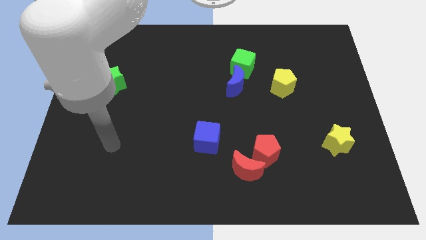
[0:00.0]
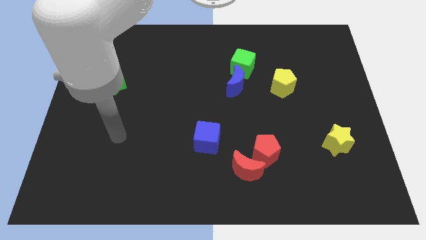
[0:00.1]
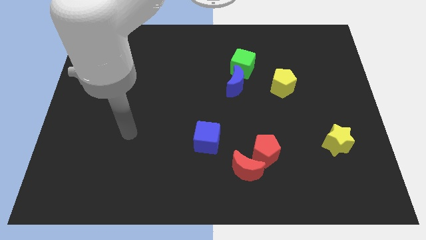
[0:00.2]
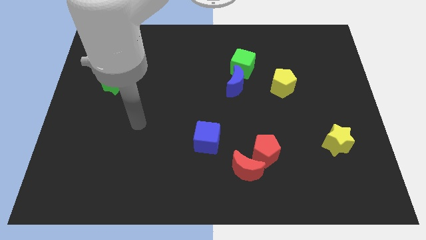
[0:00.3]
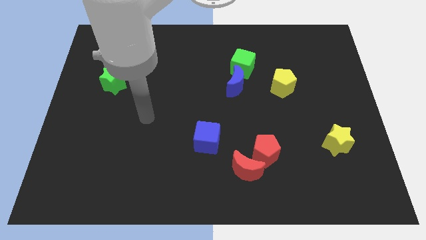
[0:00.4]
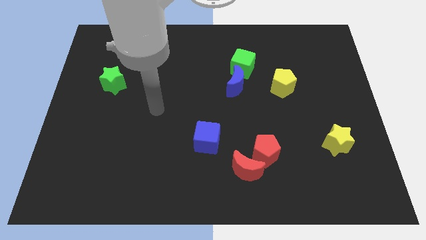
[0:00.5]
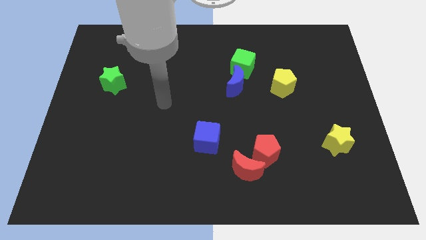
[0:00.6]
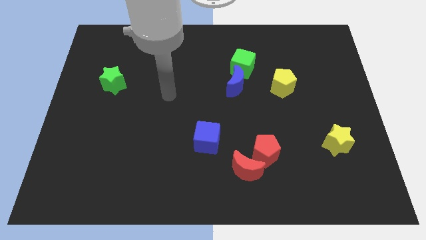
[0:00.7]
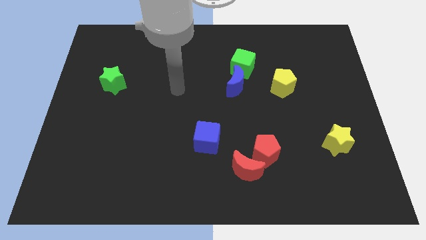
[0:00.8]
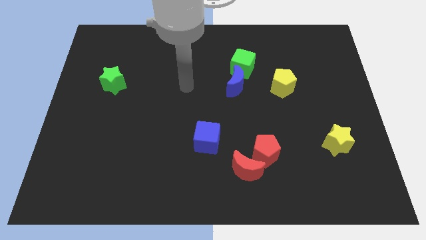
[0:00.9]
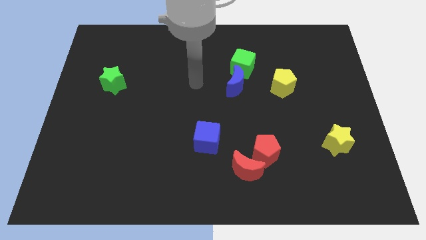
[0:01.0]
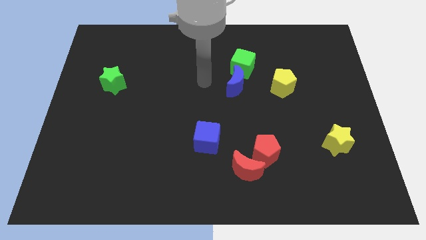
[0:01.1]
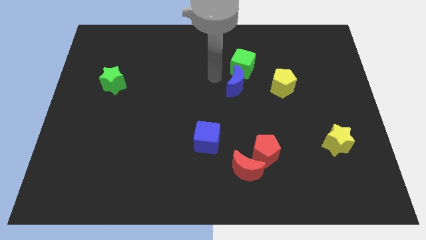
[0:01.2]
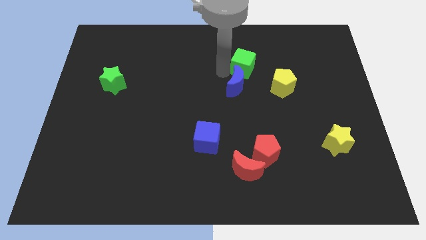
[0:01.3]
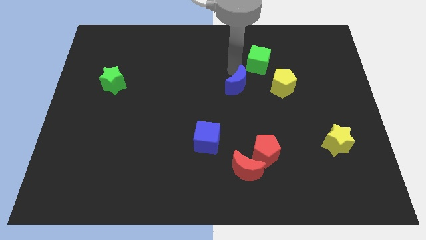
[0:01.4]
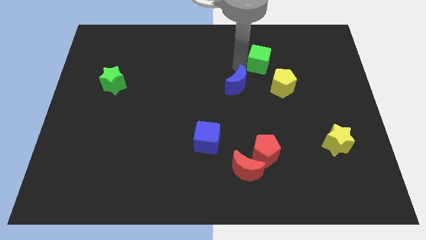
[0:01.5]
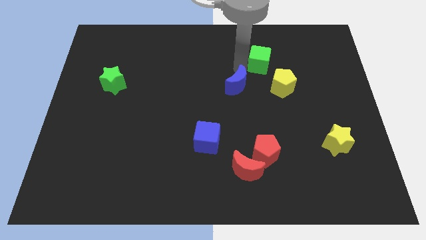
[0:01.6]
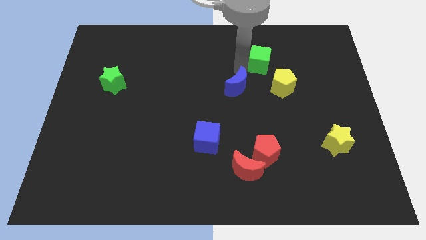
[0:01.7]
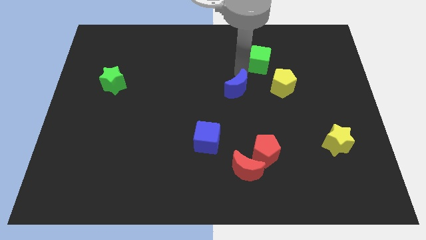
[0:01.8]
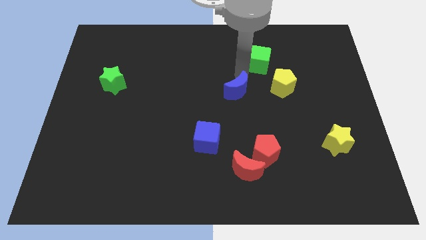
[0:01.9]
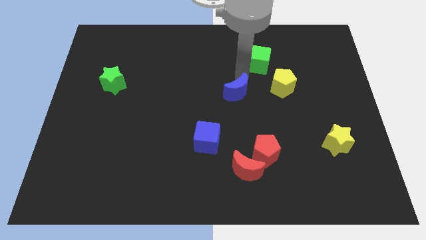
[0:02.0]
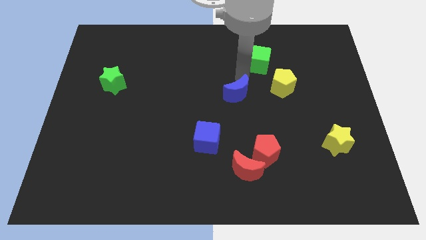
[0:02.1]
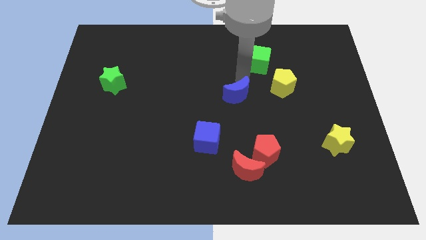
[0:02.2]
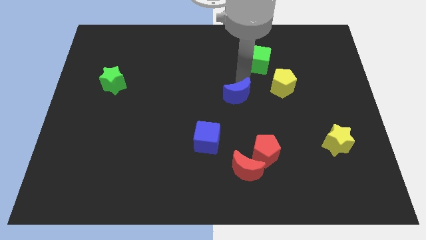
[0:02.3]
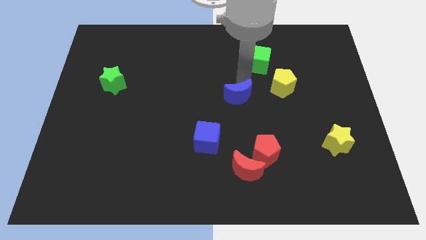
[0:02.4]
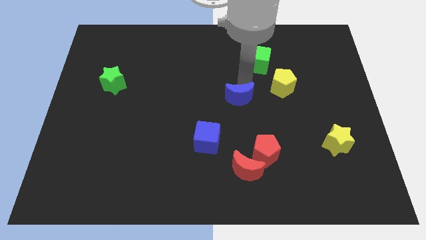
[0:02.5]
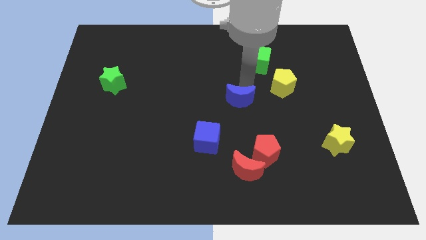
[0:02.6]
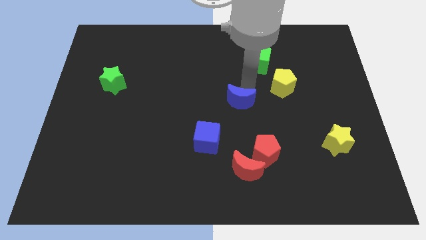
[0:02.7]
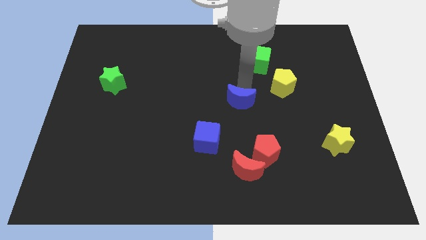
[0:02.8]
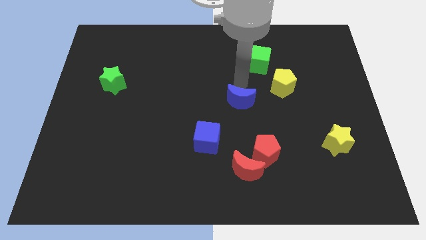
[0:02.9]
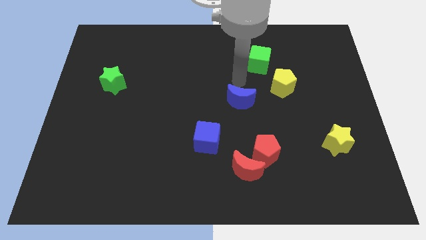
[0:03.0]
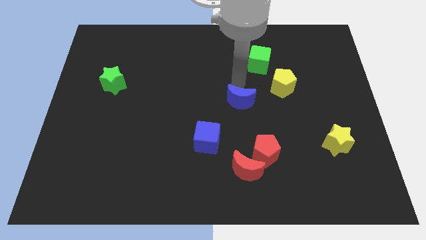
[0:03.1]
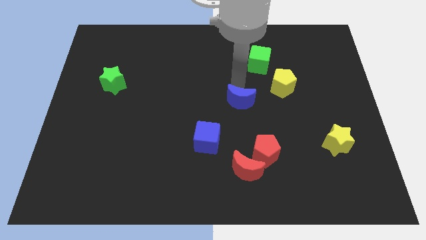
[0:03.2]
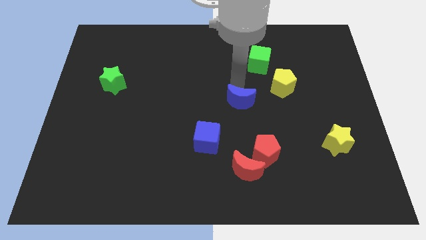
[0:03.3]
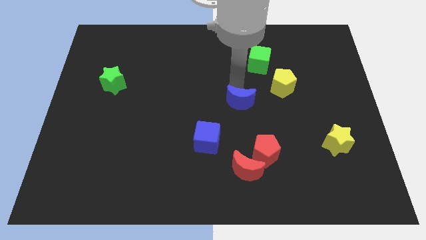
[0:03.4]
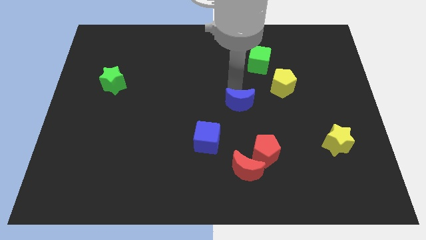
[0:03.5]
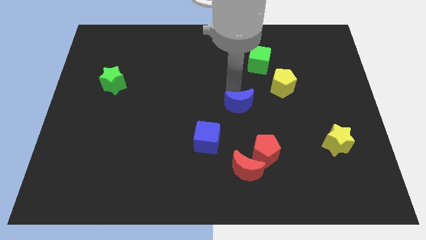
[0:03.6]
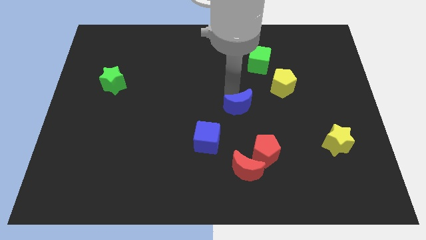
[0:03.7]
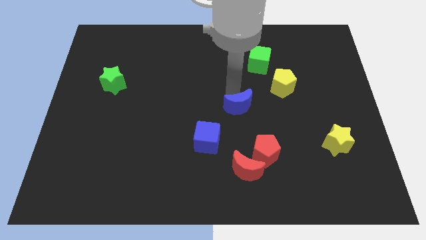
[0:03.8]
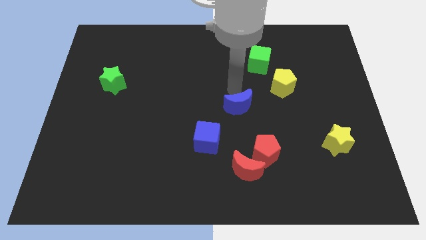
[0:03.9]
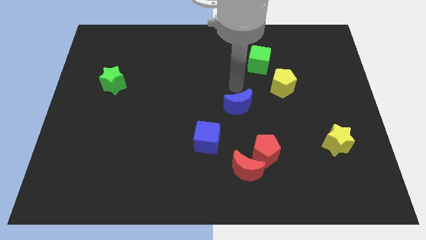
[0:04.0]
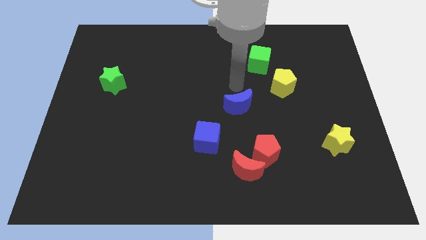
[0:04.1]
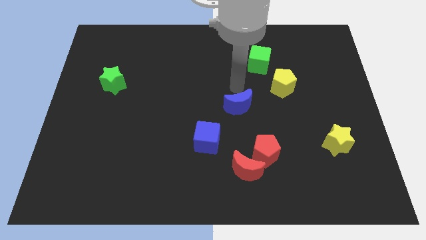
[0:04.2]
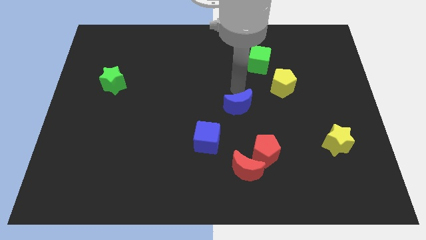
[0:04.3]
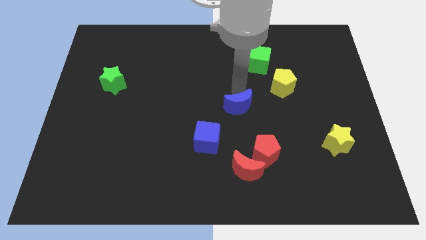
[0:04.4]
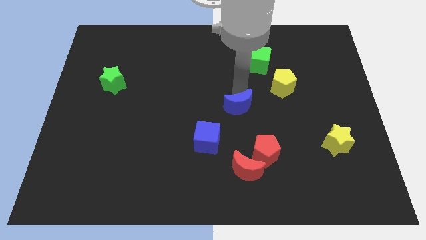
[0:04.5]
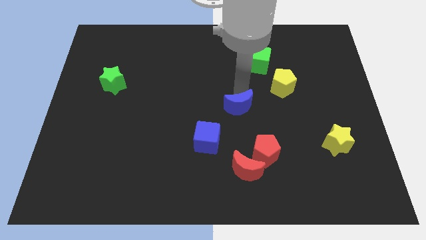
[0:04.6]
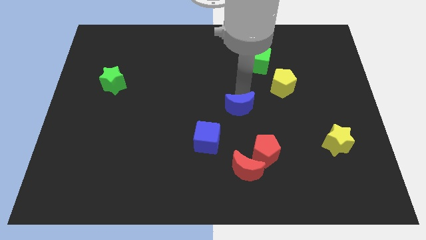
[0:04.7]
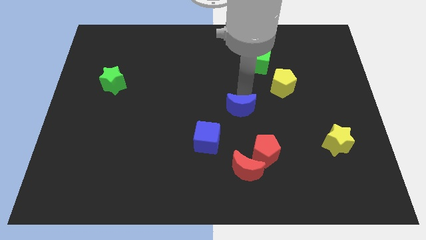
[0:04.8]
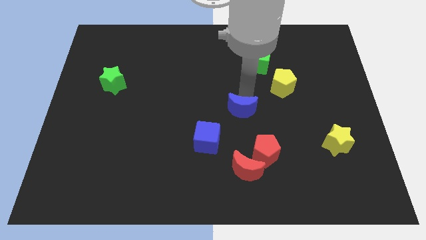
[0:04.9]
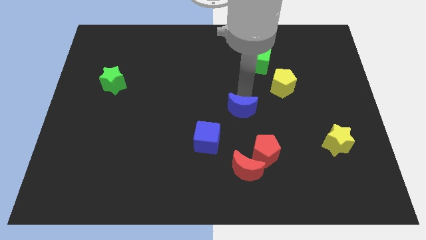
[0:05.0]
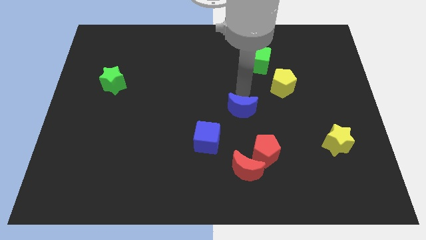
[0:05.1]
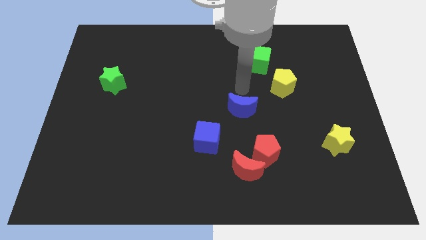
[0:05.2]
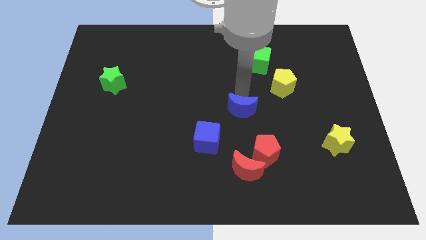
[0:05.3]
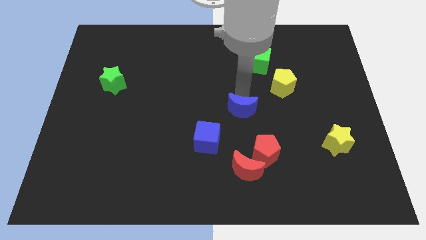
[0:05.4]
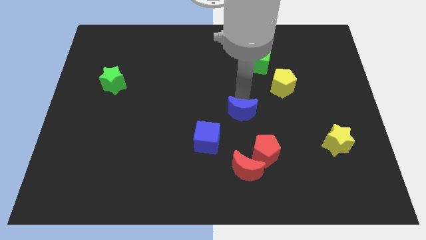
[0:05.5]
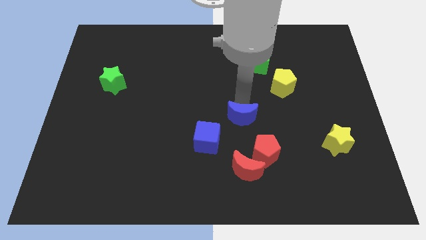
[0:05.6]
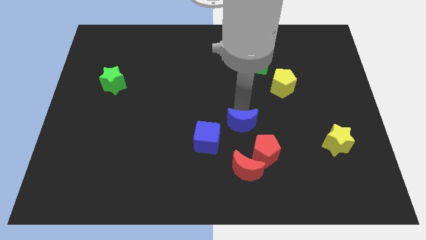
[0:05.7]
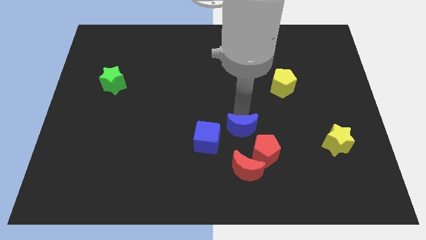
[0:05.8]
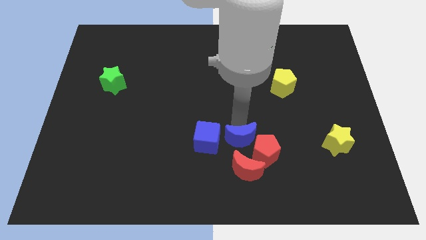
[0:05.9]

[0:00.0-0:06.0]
slide the blue moon close to the red pentagon
